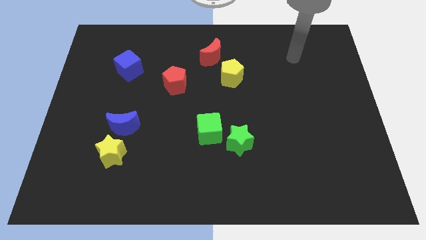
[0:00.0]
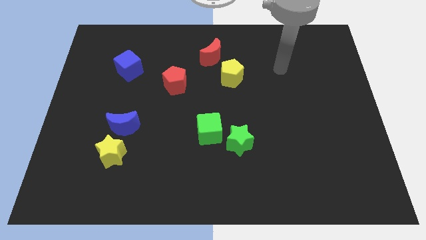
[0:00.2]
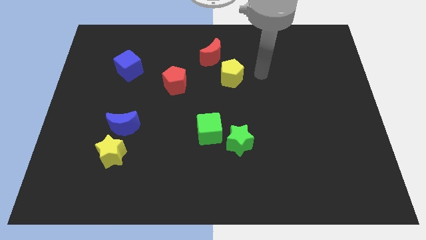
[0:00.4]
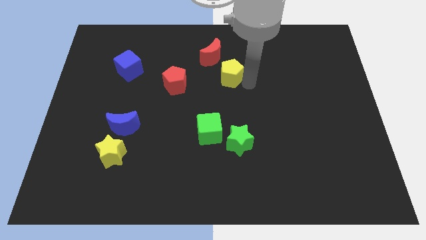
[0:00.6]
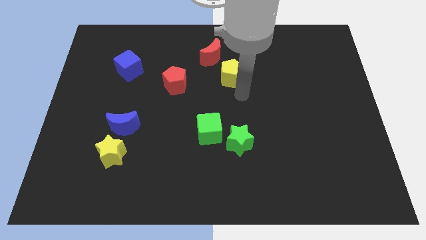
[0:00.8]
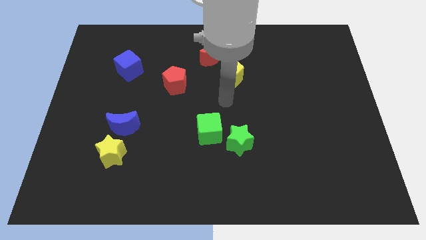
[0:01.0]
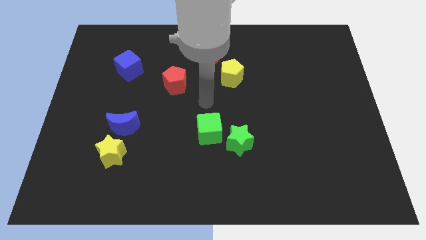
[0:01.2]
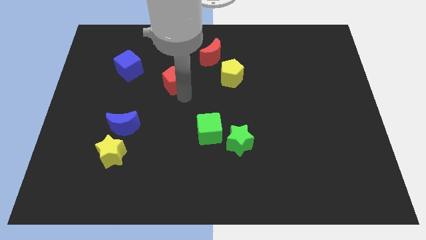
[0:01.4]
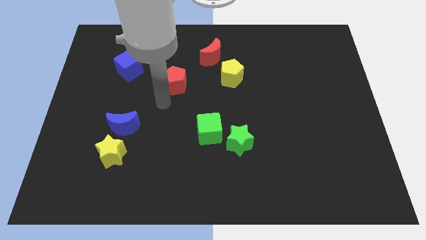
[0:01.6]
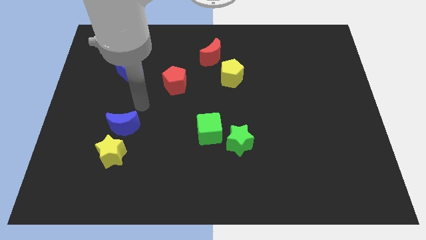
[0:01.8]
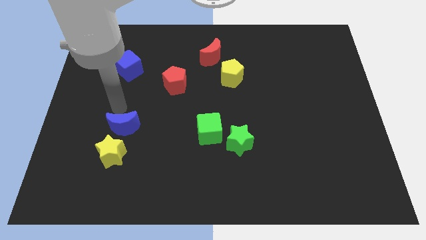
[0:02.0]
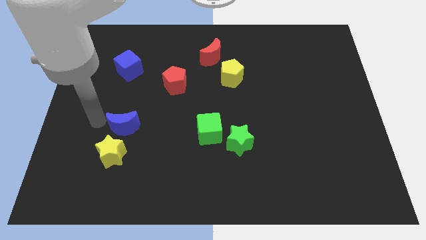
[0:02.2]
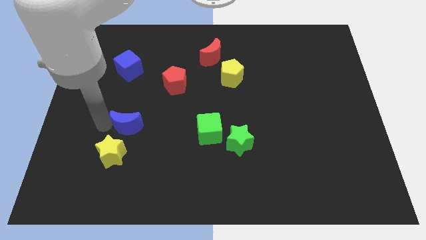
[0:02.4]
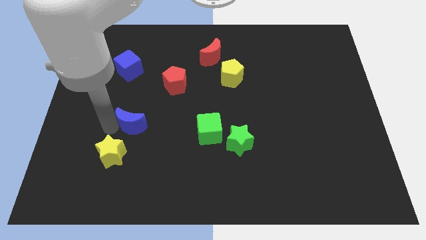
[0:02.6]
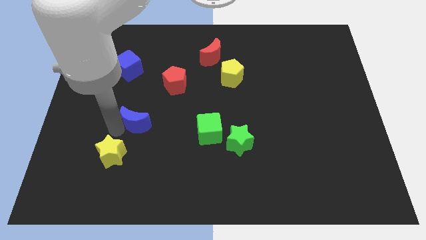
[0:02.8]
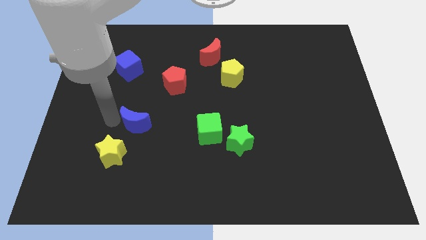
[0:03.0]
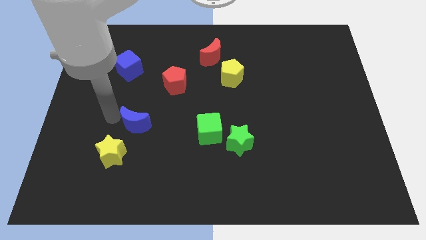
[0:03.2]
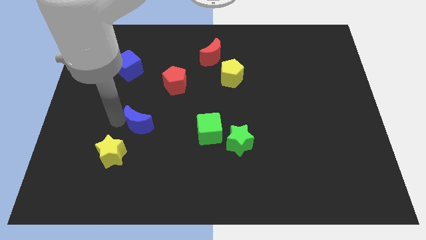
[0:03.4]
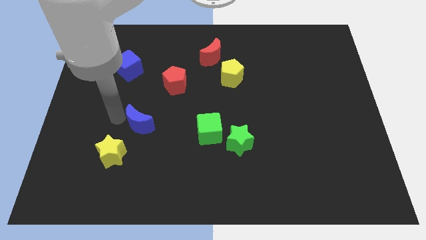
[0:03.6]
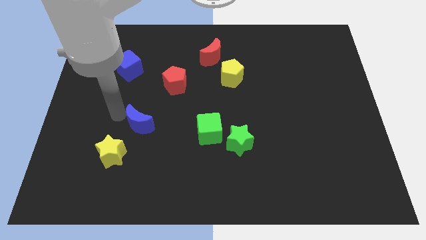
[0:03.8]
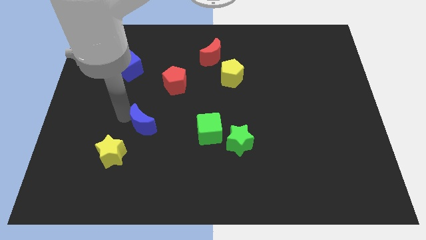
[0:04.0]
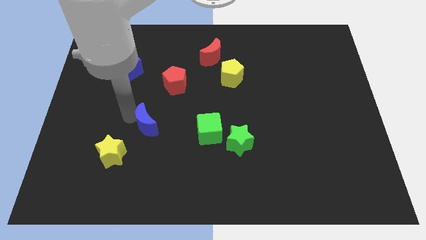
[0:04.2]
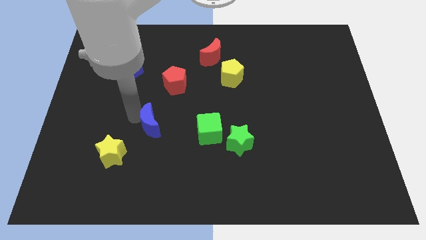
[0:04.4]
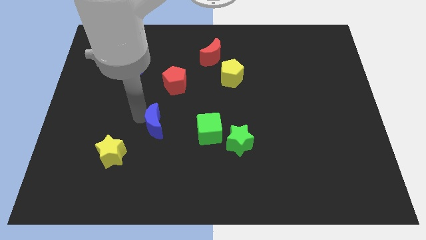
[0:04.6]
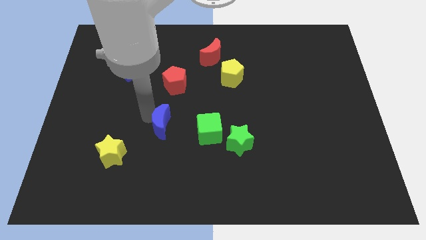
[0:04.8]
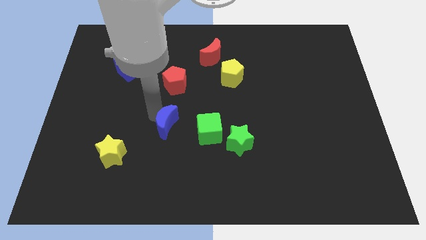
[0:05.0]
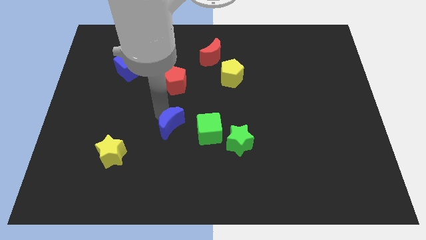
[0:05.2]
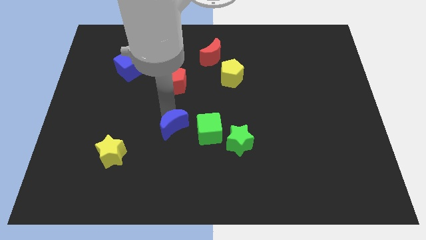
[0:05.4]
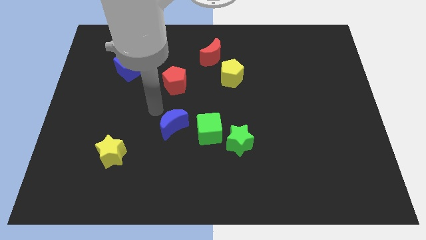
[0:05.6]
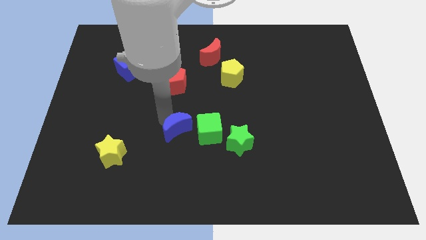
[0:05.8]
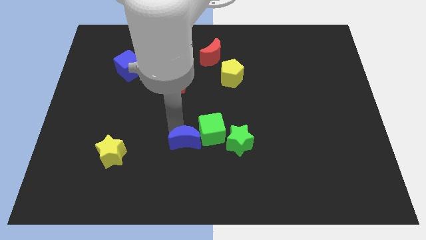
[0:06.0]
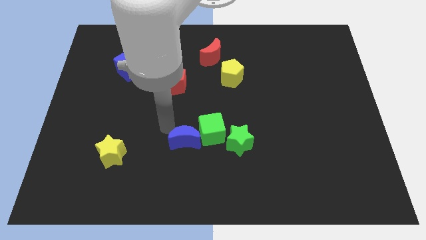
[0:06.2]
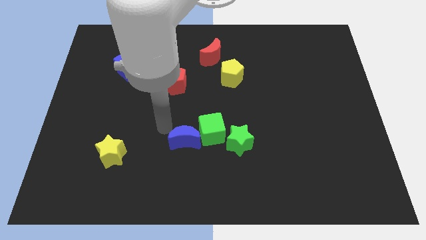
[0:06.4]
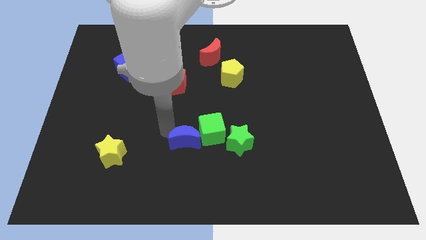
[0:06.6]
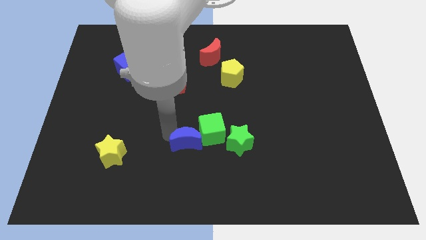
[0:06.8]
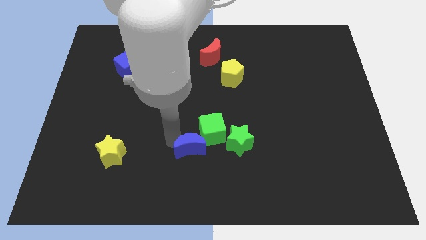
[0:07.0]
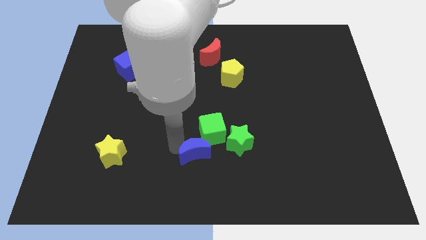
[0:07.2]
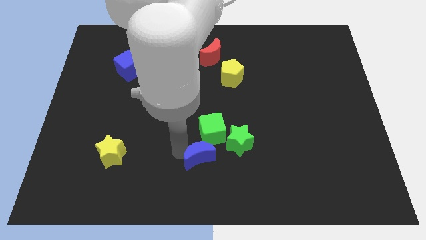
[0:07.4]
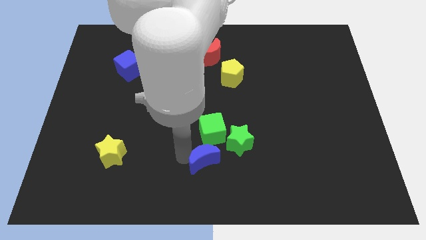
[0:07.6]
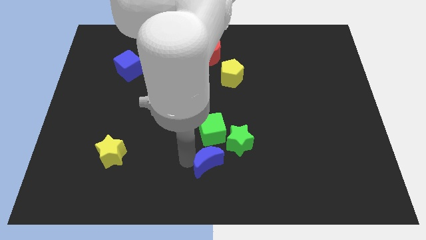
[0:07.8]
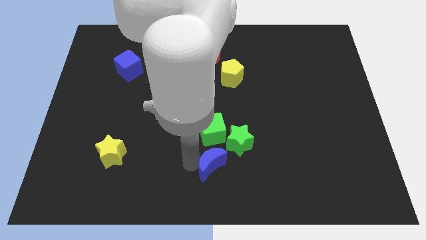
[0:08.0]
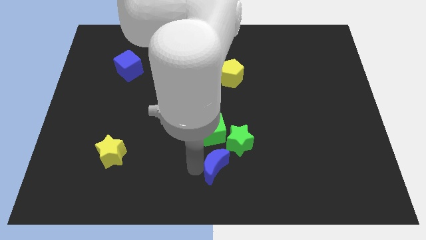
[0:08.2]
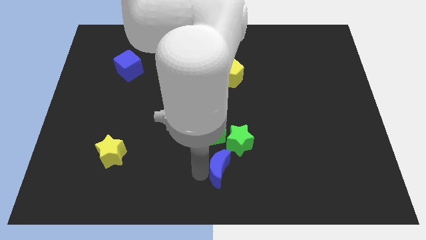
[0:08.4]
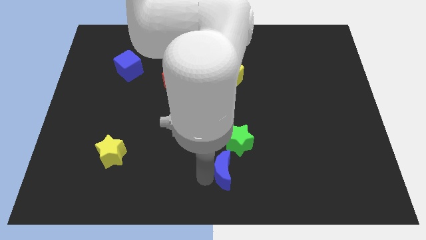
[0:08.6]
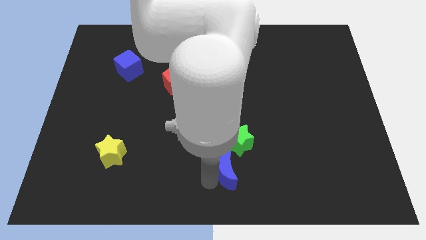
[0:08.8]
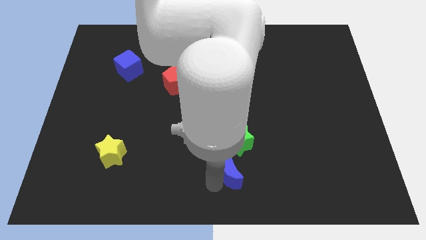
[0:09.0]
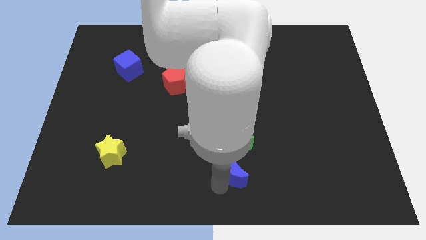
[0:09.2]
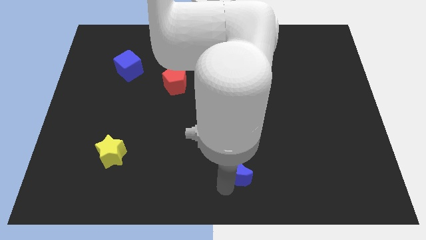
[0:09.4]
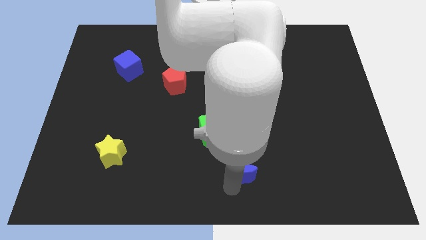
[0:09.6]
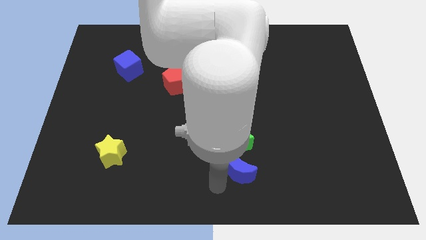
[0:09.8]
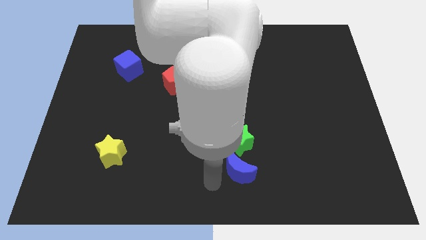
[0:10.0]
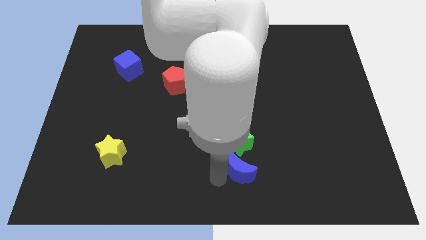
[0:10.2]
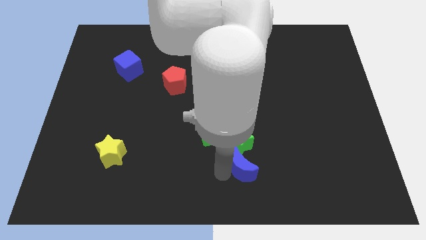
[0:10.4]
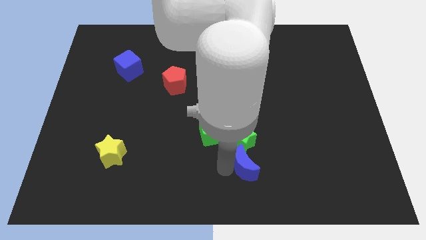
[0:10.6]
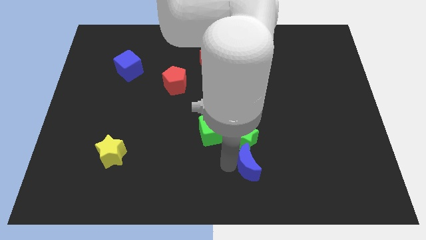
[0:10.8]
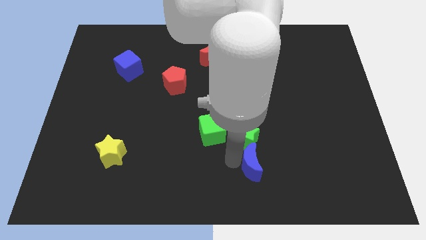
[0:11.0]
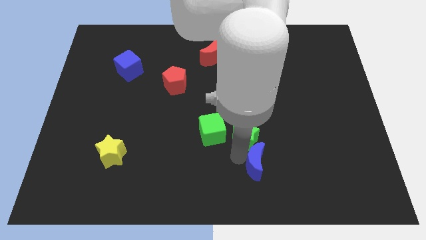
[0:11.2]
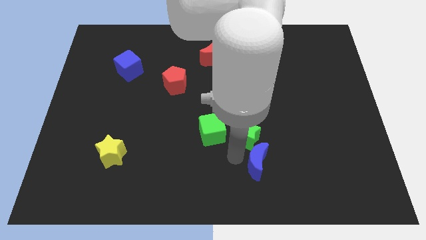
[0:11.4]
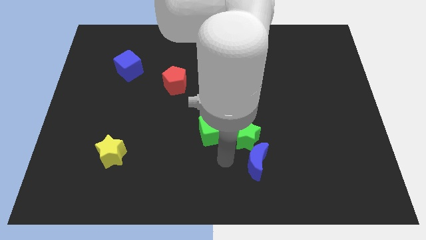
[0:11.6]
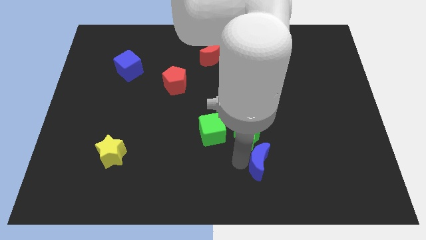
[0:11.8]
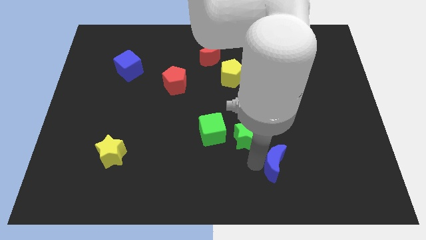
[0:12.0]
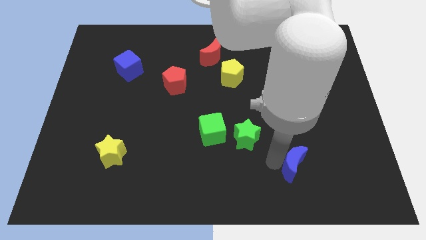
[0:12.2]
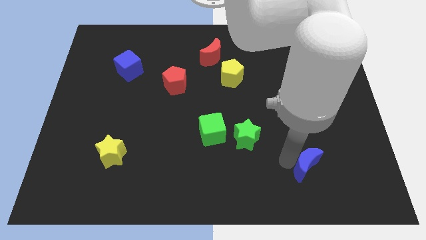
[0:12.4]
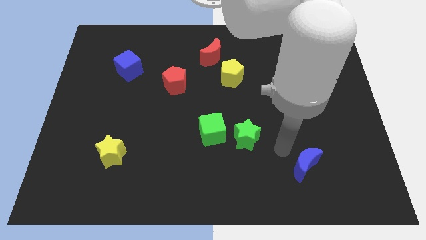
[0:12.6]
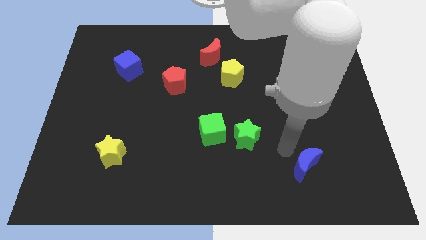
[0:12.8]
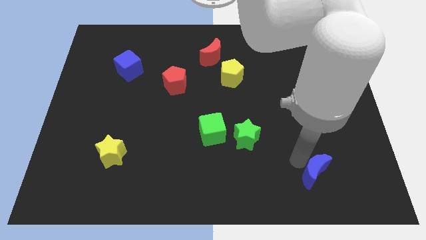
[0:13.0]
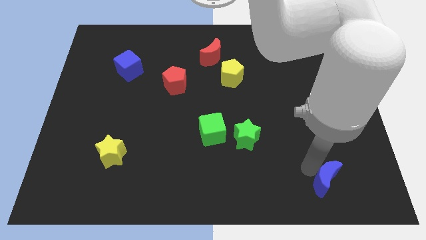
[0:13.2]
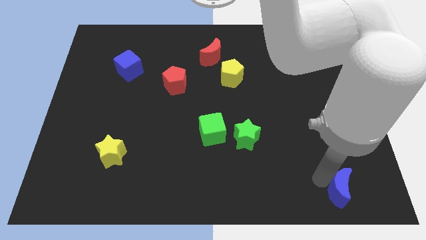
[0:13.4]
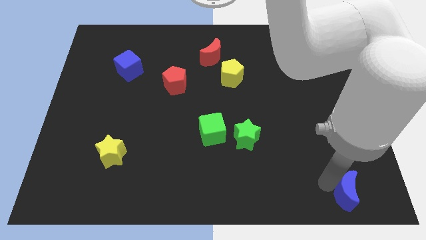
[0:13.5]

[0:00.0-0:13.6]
push the blue moon to the lower right corner
